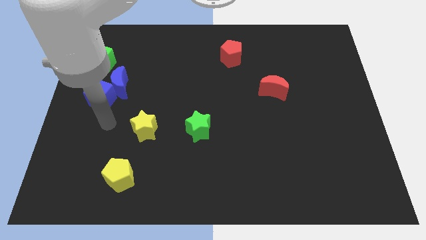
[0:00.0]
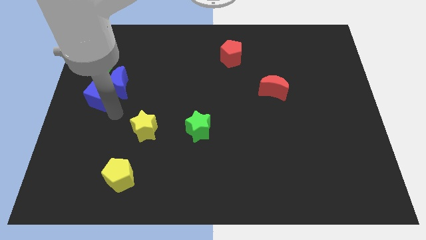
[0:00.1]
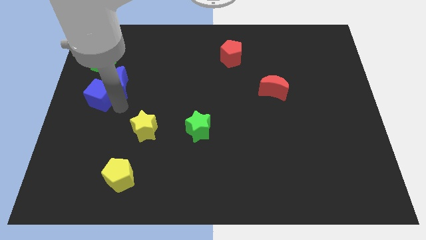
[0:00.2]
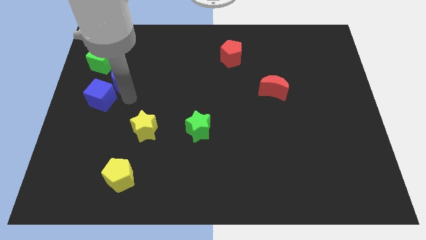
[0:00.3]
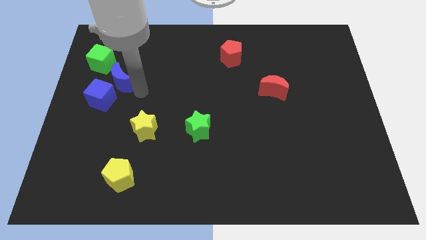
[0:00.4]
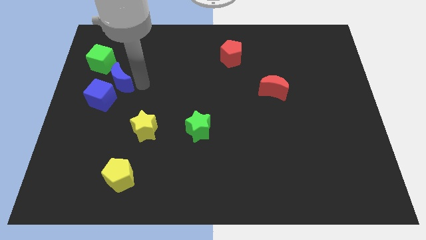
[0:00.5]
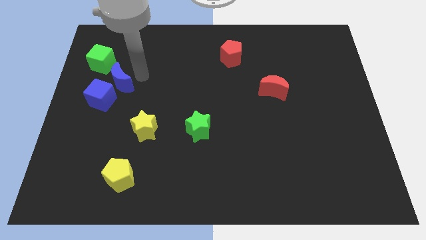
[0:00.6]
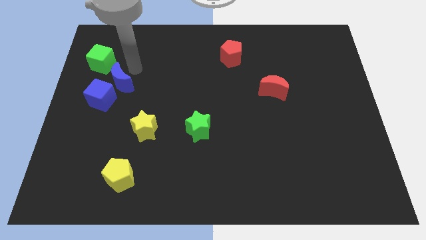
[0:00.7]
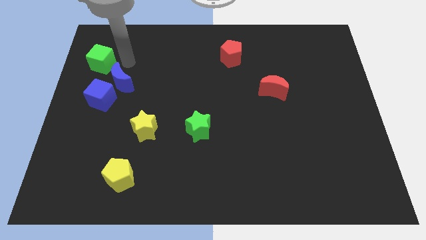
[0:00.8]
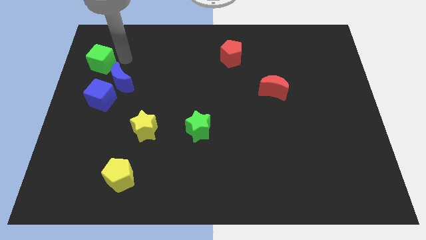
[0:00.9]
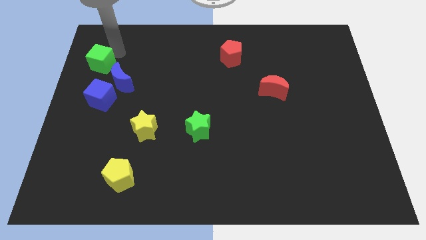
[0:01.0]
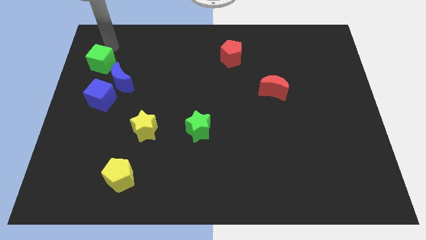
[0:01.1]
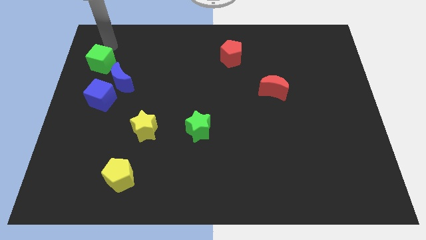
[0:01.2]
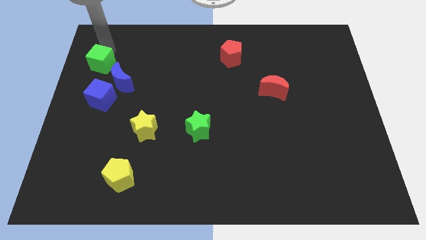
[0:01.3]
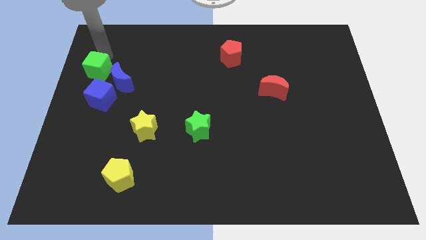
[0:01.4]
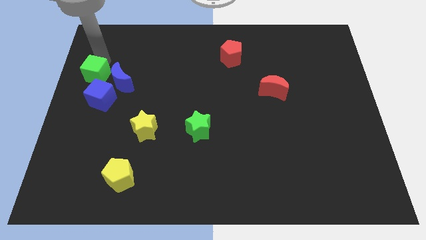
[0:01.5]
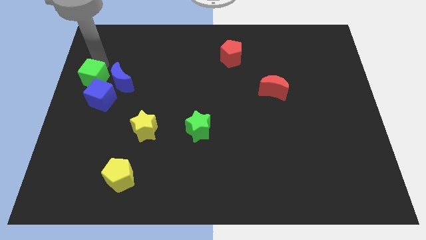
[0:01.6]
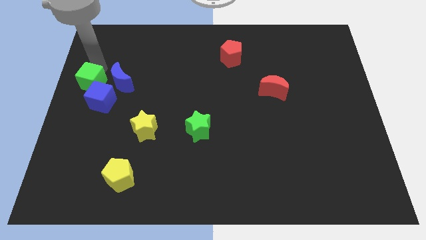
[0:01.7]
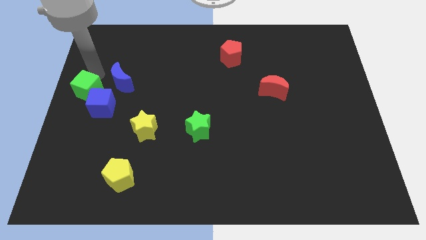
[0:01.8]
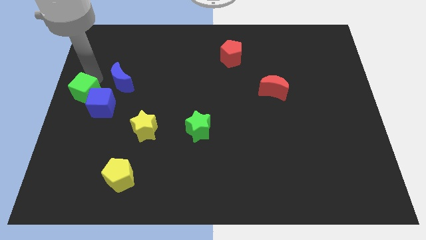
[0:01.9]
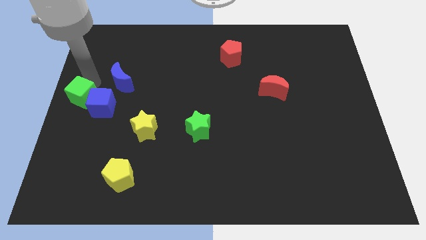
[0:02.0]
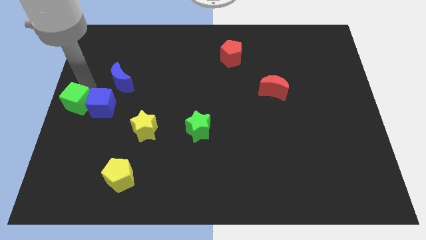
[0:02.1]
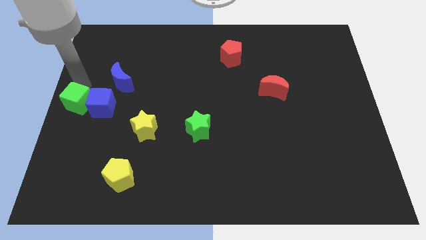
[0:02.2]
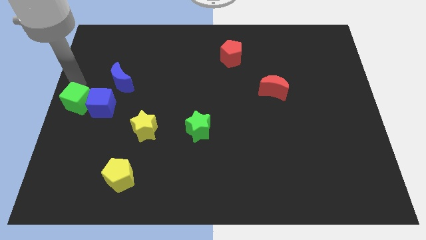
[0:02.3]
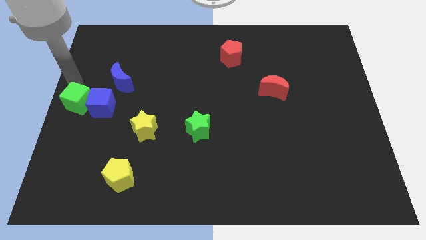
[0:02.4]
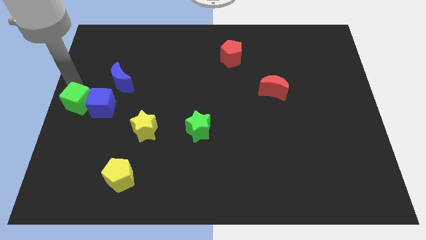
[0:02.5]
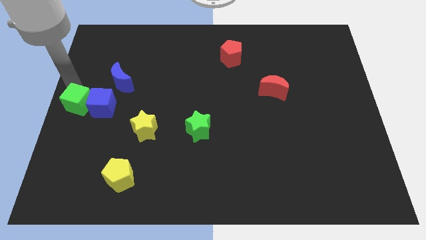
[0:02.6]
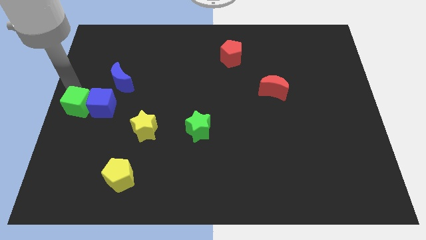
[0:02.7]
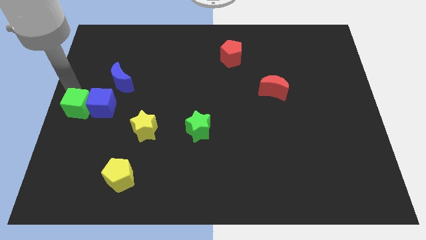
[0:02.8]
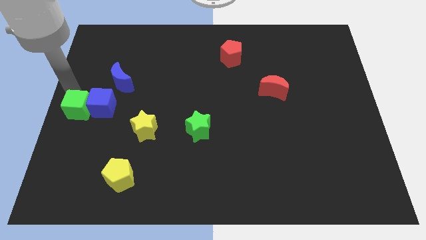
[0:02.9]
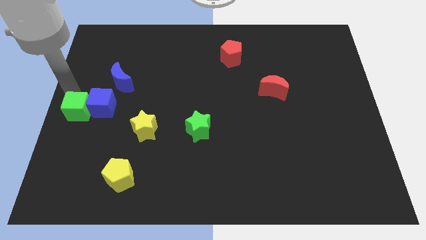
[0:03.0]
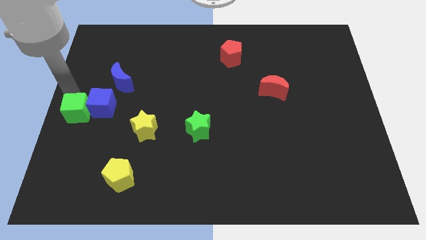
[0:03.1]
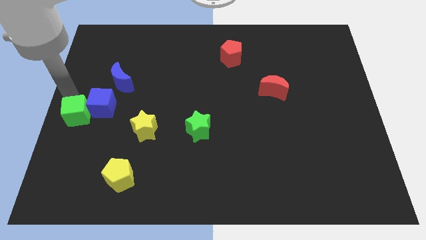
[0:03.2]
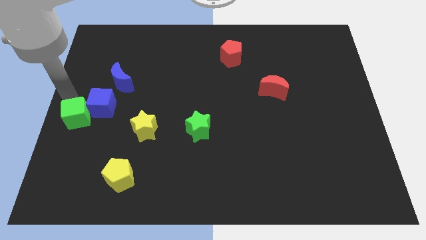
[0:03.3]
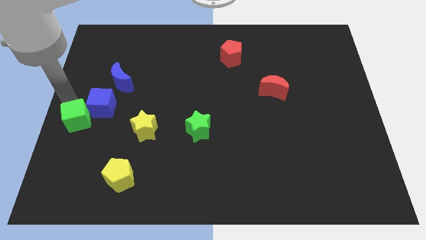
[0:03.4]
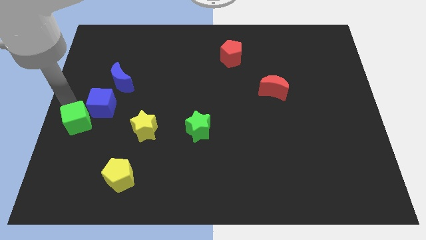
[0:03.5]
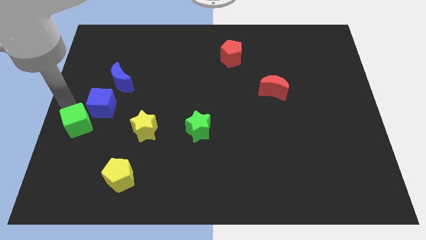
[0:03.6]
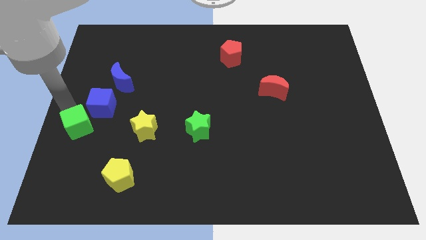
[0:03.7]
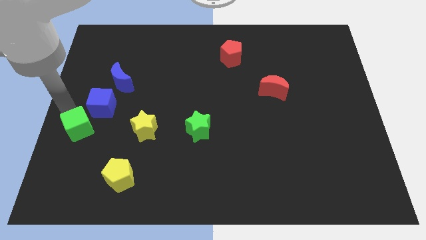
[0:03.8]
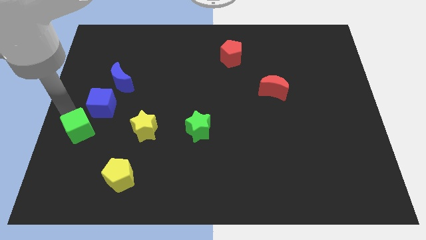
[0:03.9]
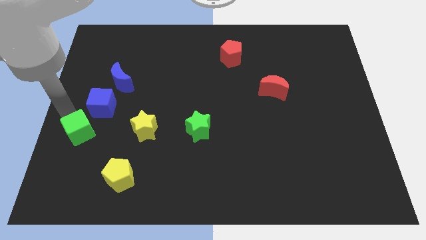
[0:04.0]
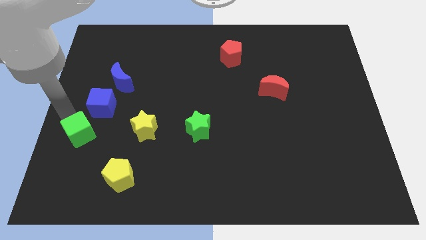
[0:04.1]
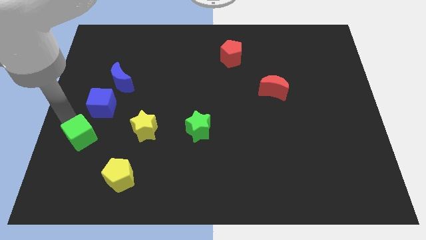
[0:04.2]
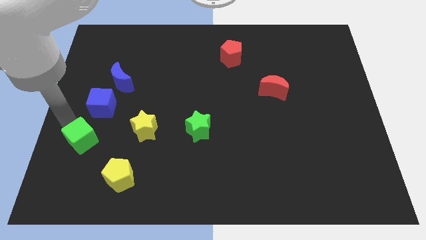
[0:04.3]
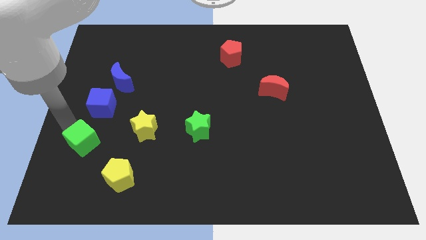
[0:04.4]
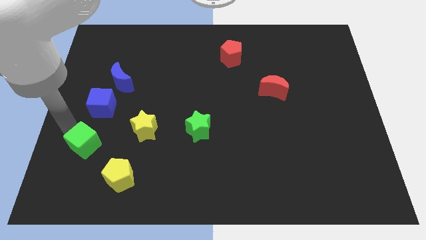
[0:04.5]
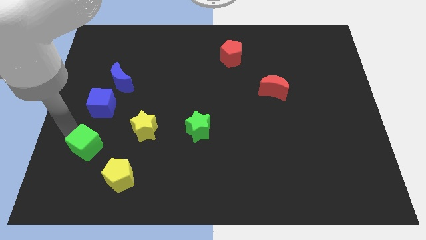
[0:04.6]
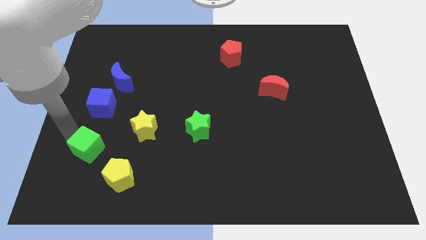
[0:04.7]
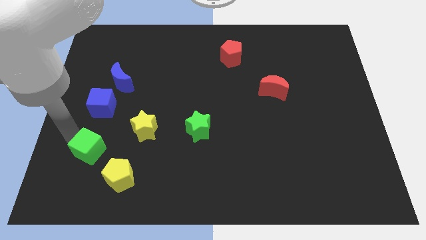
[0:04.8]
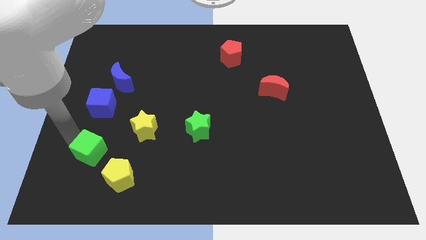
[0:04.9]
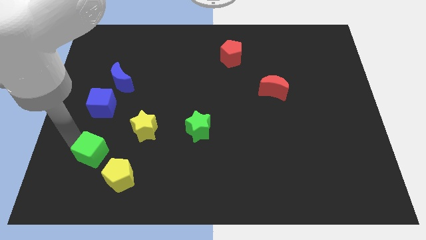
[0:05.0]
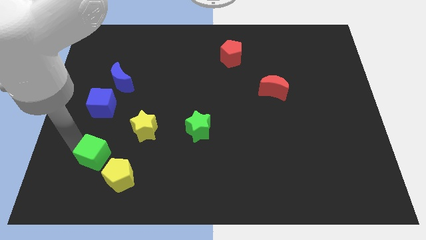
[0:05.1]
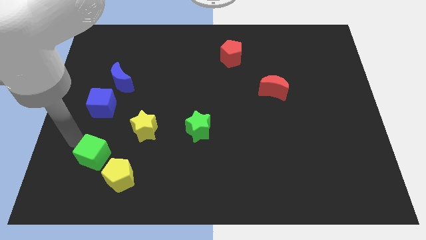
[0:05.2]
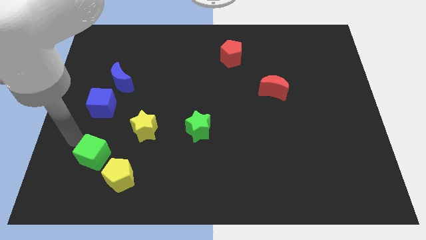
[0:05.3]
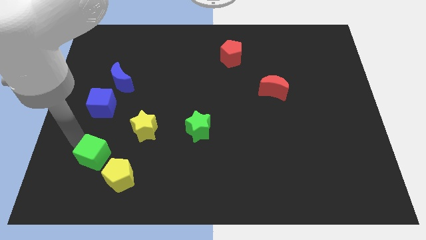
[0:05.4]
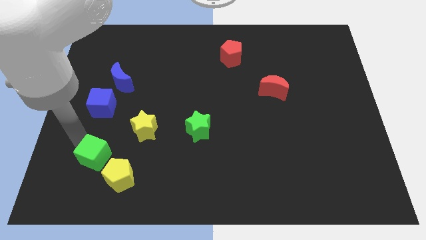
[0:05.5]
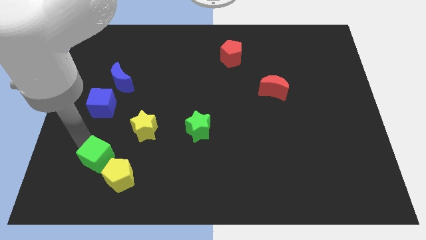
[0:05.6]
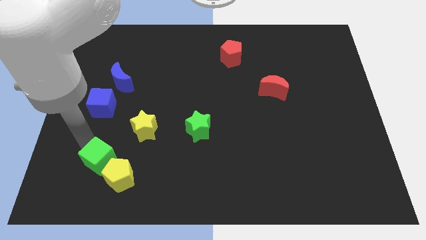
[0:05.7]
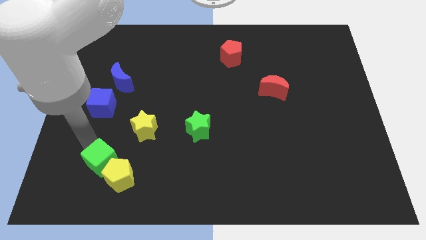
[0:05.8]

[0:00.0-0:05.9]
move the green cube close to the yellow pentagon
